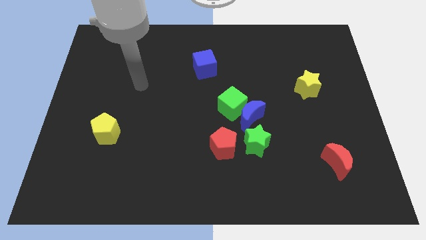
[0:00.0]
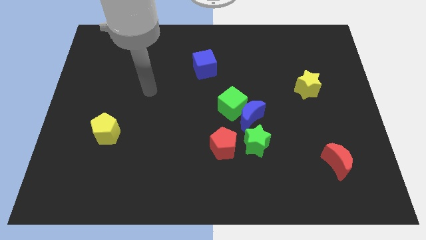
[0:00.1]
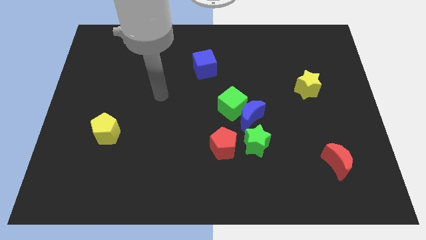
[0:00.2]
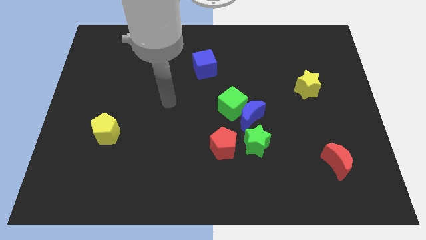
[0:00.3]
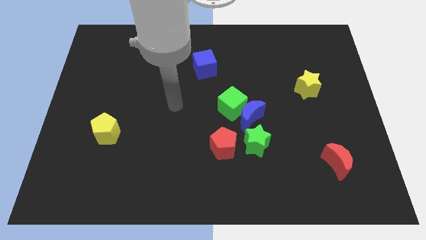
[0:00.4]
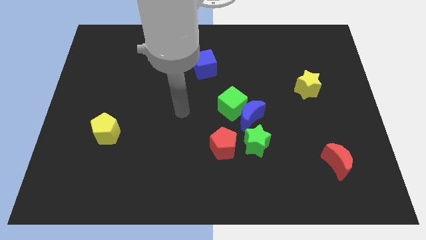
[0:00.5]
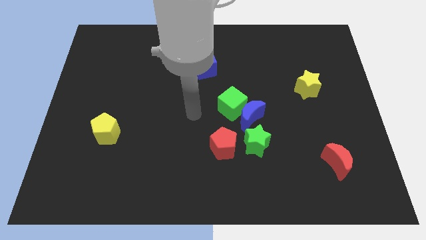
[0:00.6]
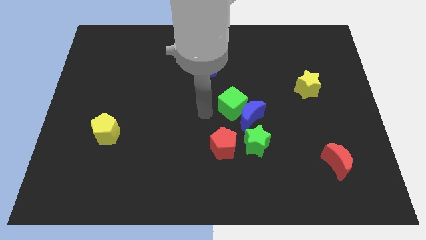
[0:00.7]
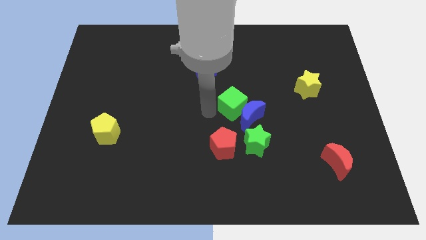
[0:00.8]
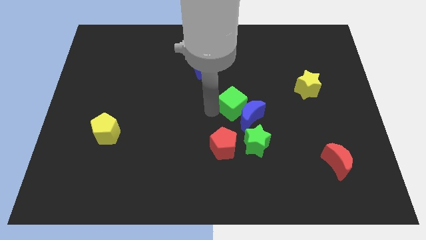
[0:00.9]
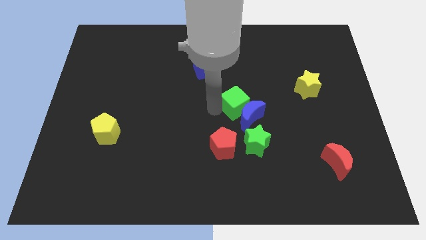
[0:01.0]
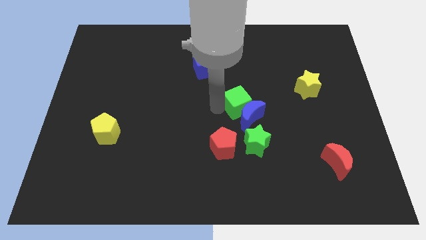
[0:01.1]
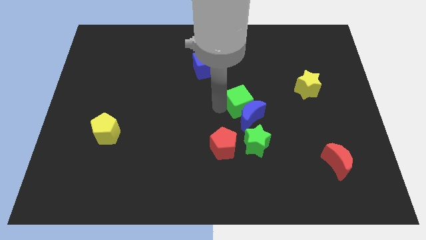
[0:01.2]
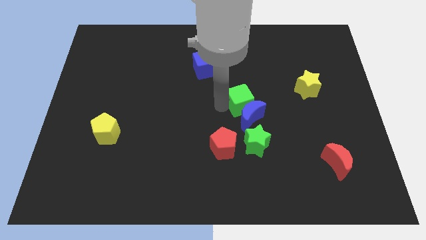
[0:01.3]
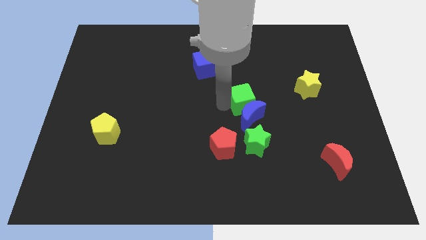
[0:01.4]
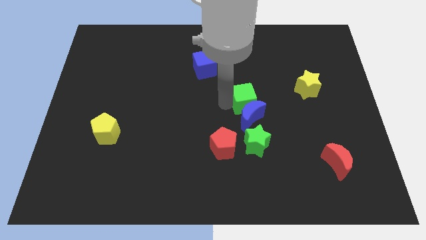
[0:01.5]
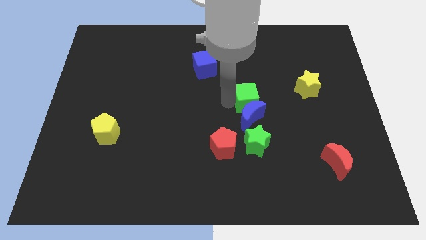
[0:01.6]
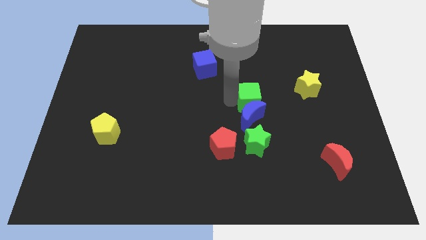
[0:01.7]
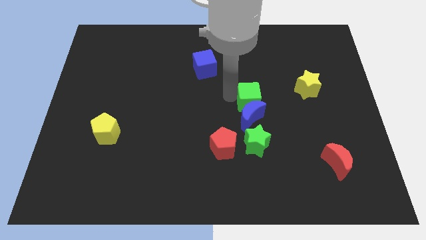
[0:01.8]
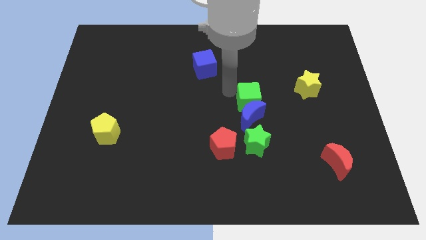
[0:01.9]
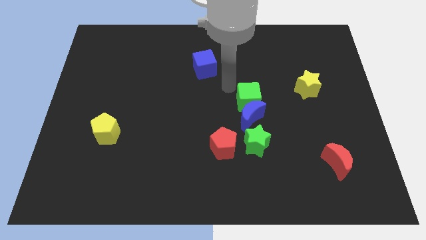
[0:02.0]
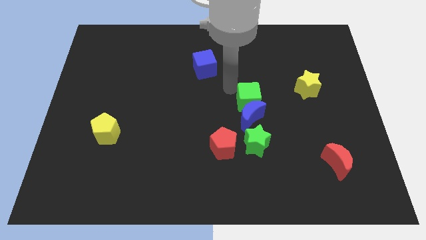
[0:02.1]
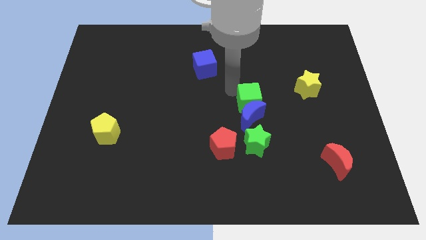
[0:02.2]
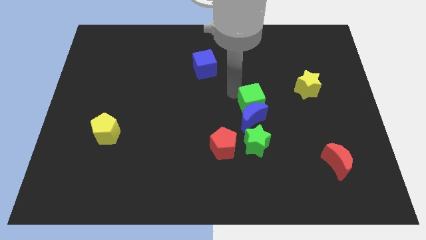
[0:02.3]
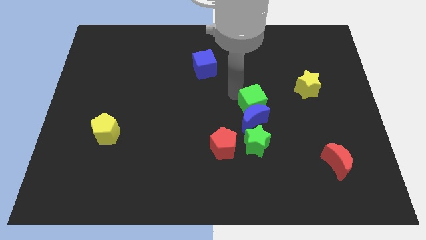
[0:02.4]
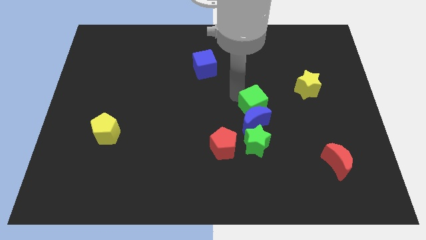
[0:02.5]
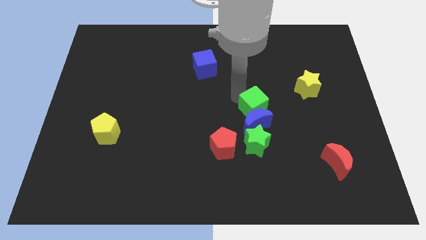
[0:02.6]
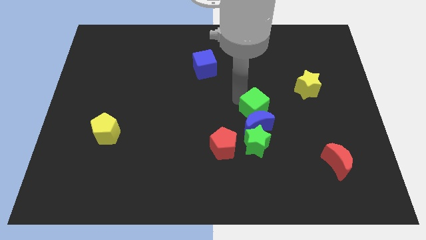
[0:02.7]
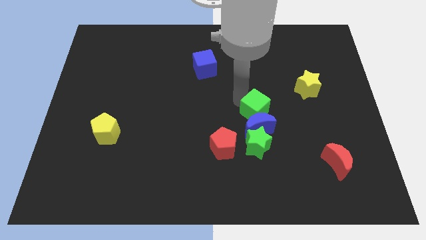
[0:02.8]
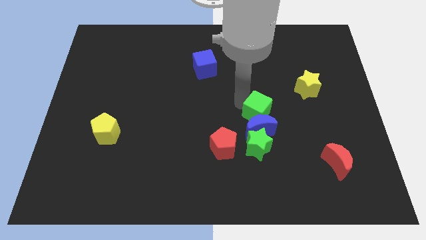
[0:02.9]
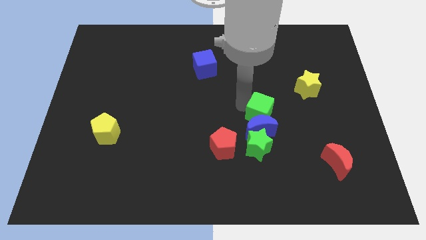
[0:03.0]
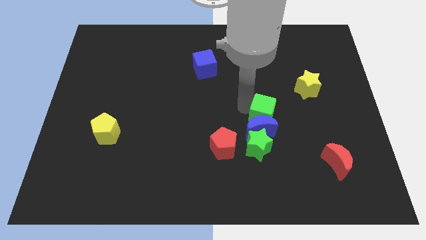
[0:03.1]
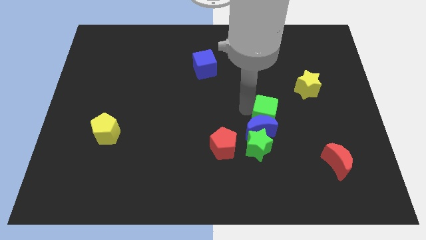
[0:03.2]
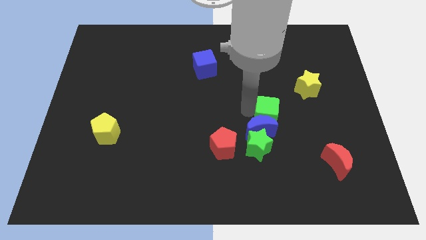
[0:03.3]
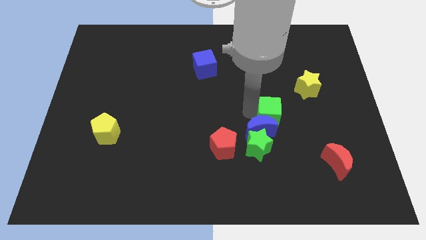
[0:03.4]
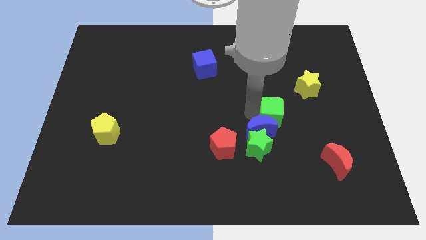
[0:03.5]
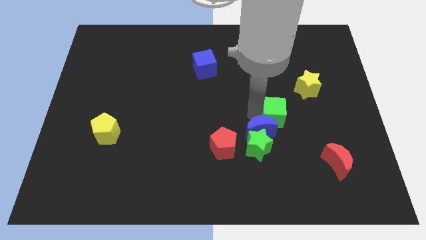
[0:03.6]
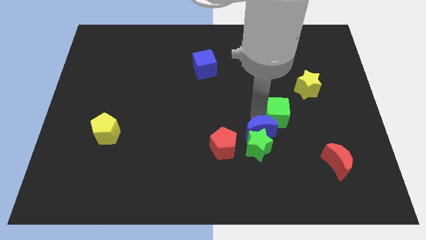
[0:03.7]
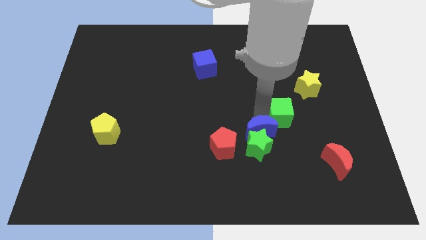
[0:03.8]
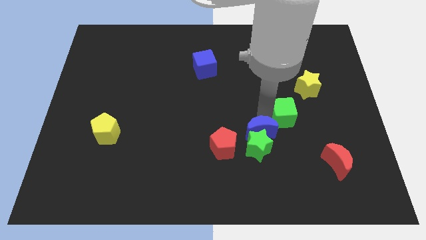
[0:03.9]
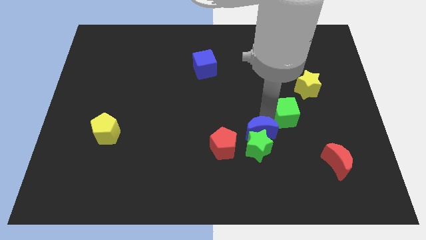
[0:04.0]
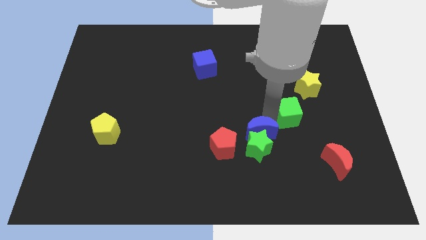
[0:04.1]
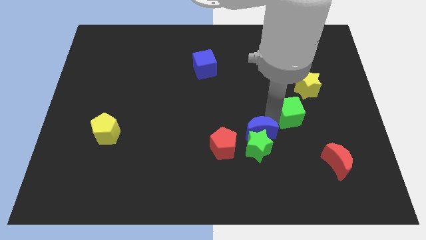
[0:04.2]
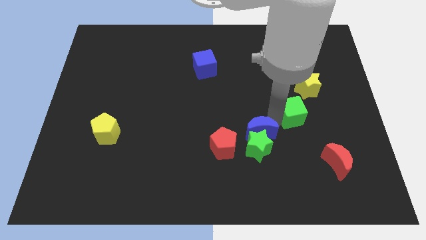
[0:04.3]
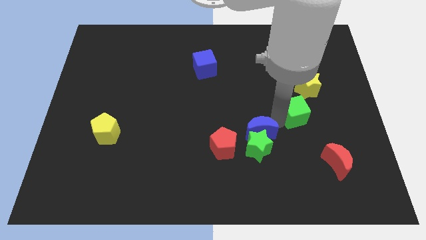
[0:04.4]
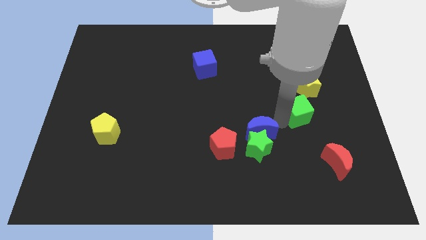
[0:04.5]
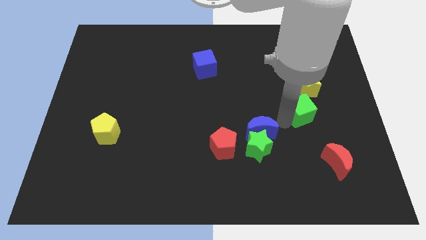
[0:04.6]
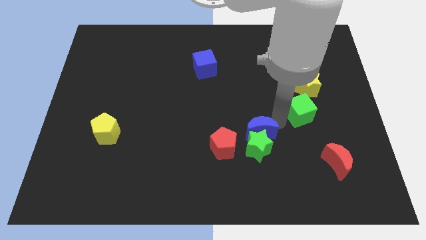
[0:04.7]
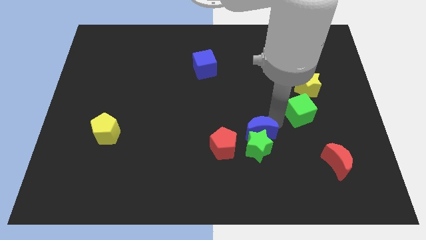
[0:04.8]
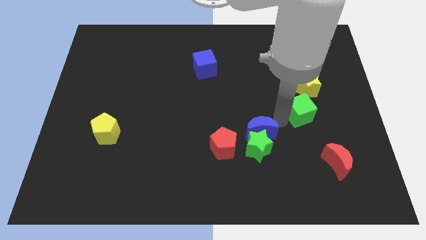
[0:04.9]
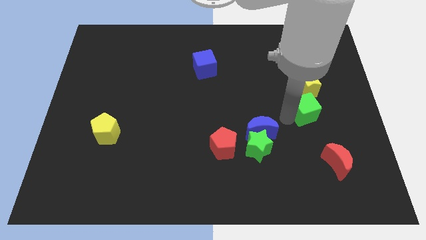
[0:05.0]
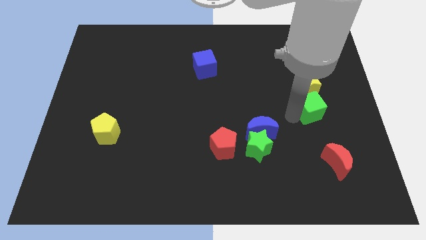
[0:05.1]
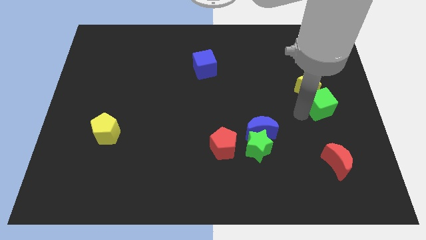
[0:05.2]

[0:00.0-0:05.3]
put the green cube to the right side of the board

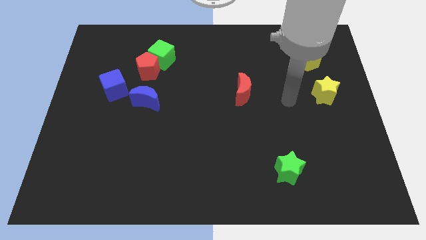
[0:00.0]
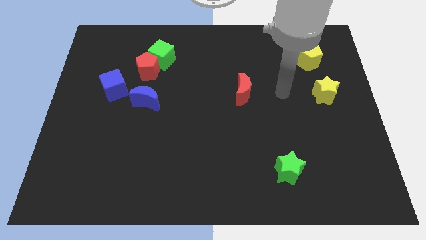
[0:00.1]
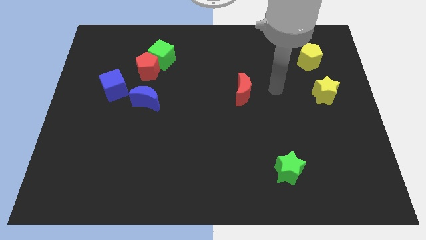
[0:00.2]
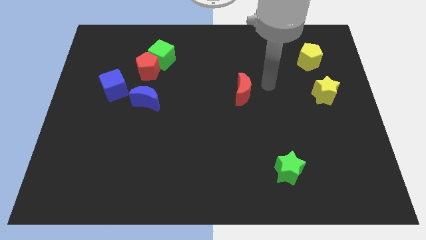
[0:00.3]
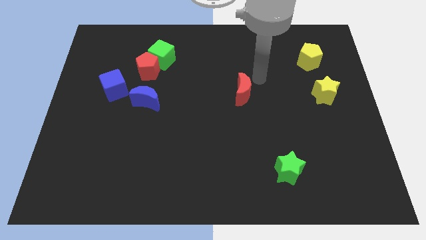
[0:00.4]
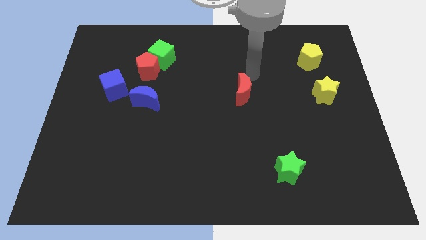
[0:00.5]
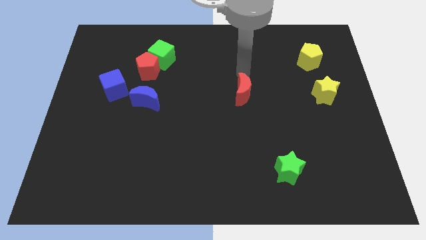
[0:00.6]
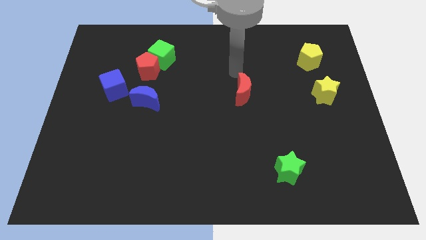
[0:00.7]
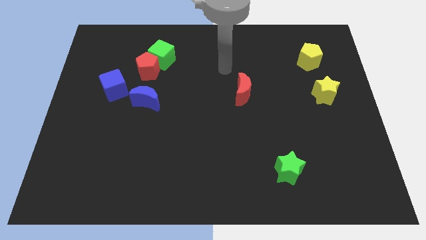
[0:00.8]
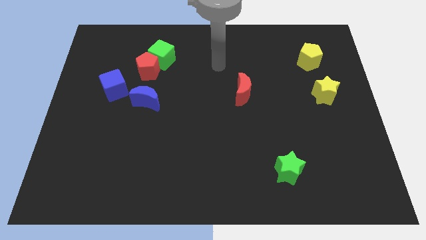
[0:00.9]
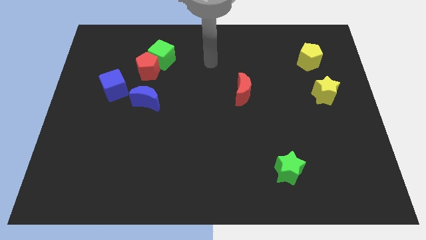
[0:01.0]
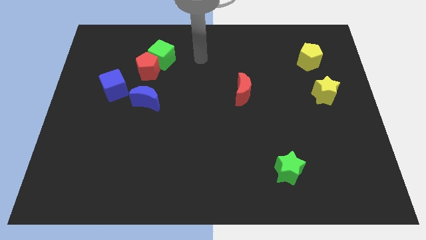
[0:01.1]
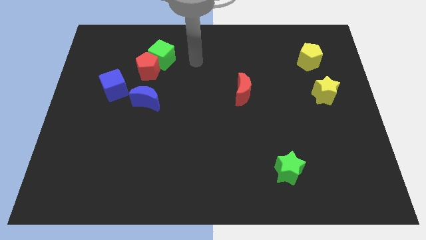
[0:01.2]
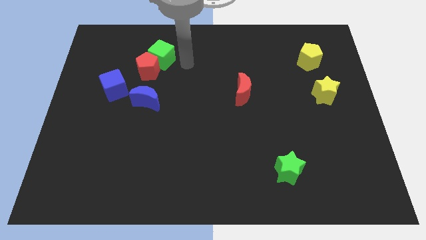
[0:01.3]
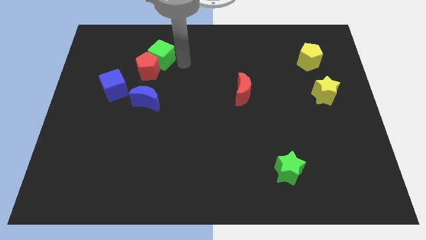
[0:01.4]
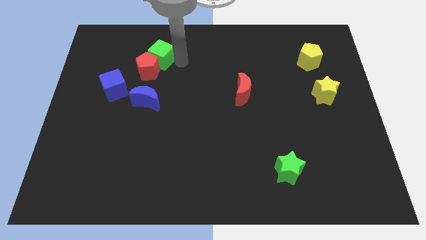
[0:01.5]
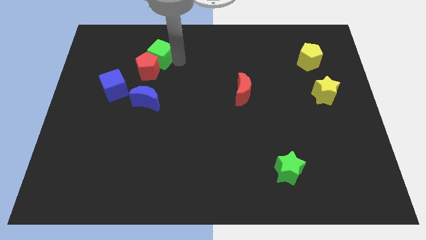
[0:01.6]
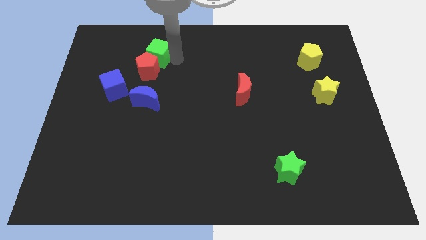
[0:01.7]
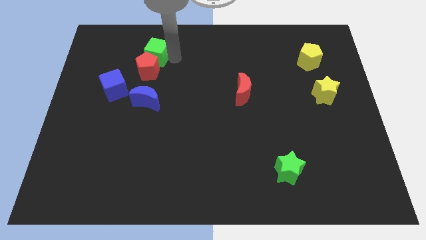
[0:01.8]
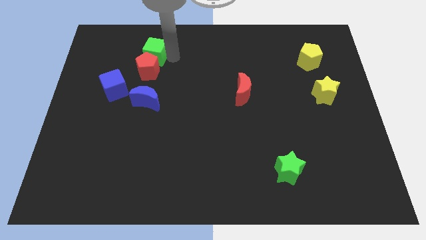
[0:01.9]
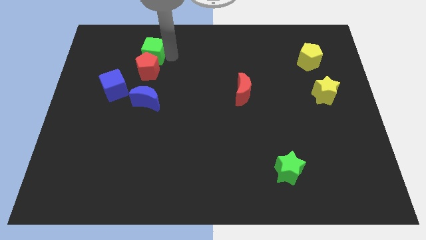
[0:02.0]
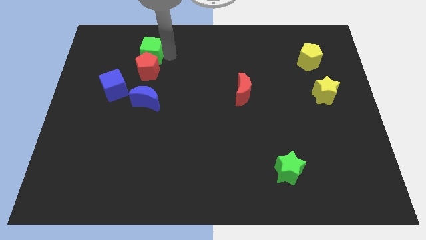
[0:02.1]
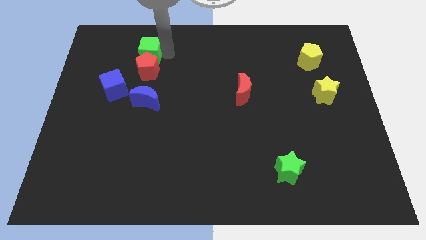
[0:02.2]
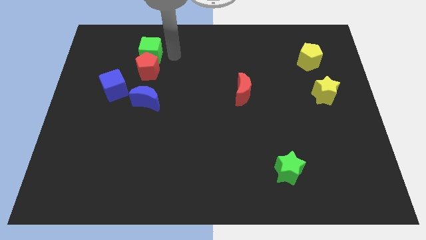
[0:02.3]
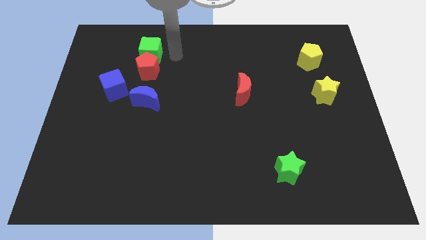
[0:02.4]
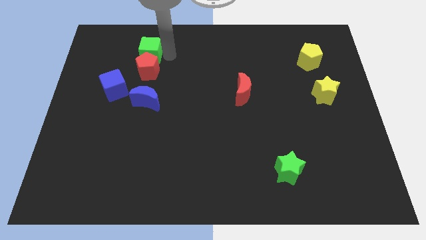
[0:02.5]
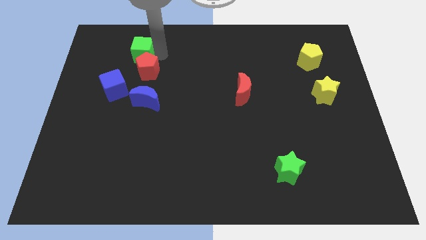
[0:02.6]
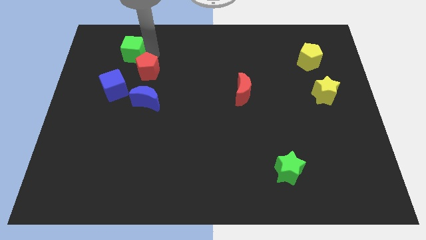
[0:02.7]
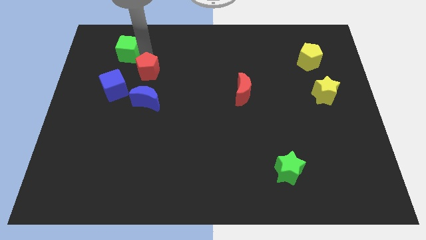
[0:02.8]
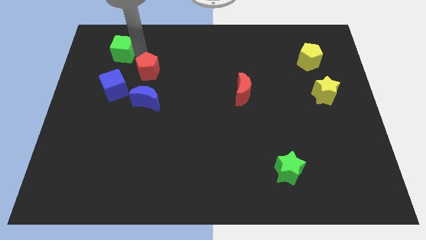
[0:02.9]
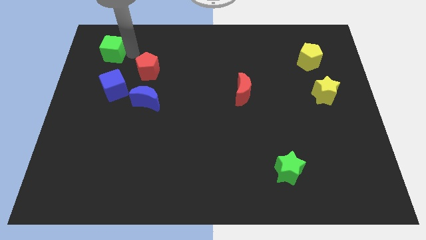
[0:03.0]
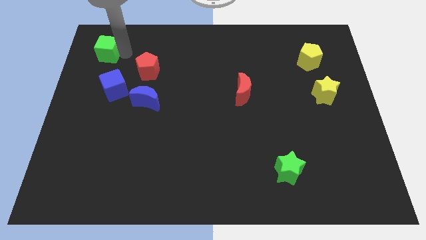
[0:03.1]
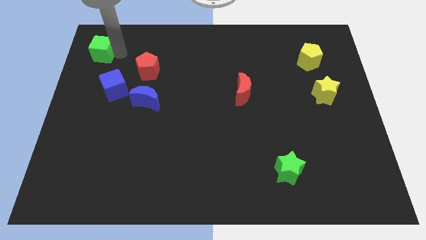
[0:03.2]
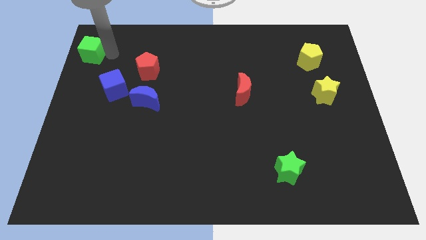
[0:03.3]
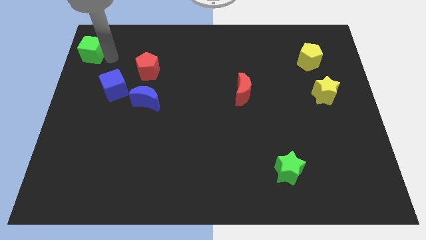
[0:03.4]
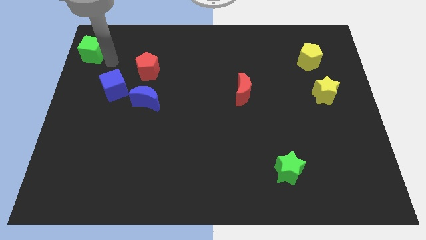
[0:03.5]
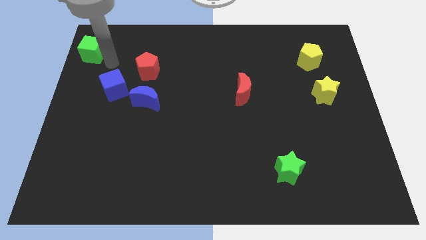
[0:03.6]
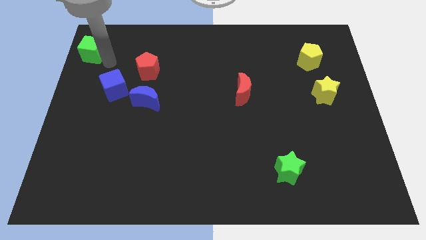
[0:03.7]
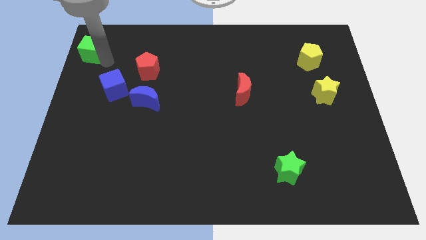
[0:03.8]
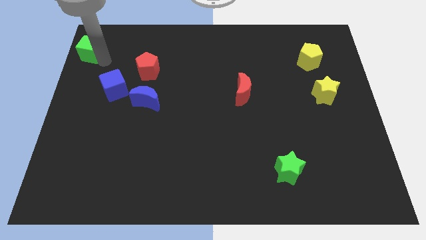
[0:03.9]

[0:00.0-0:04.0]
put the green cube to the top left of the board
